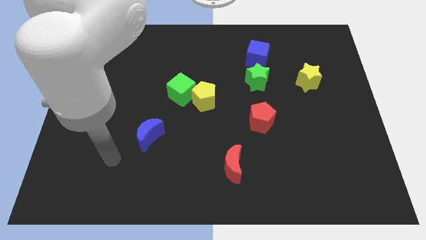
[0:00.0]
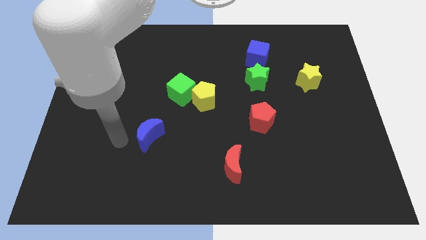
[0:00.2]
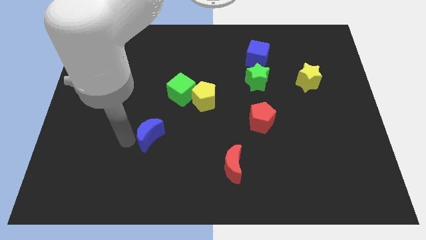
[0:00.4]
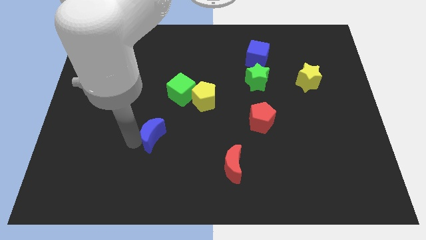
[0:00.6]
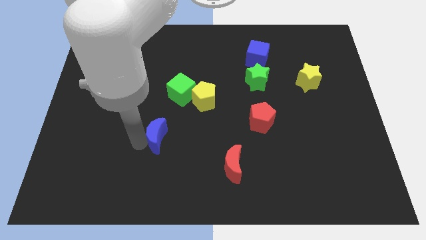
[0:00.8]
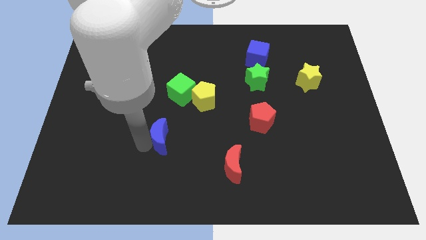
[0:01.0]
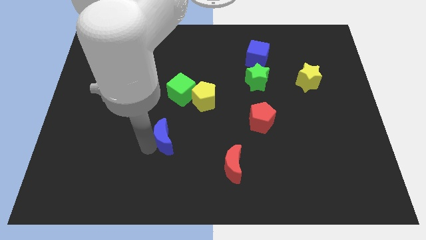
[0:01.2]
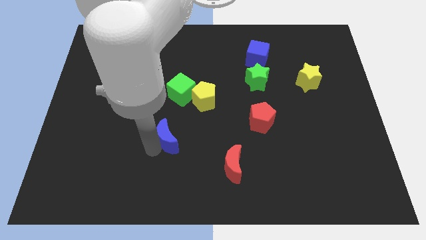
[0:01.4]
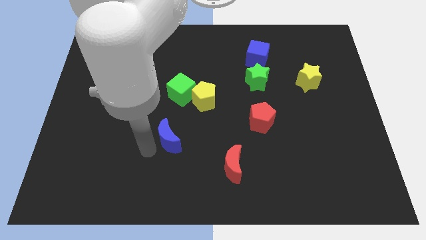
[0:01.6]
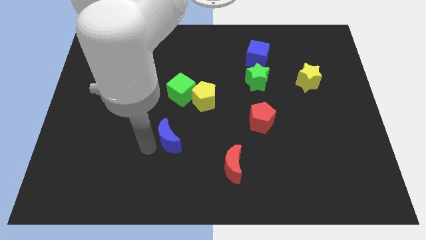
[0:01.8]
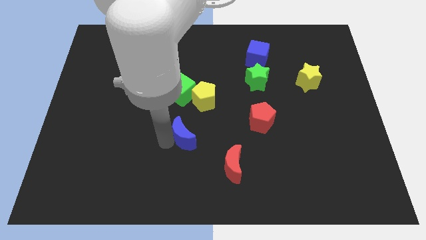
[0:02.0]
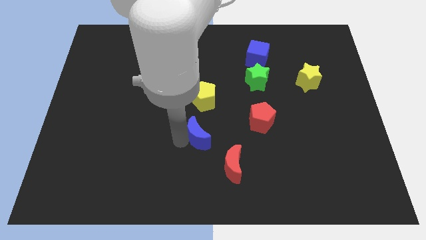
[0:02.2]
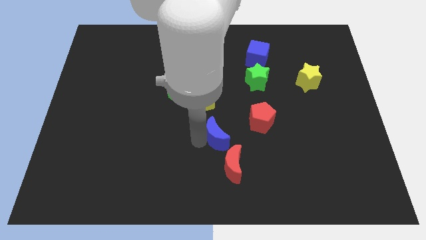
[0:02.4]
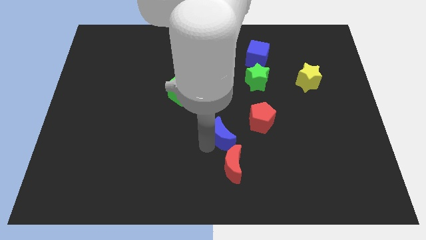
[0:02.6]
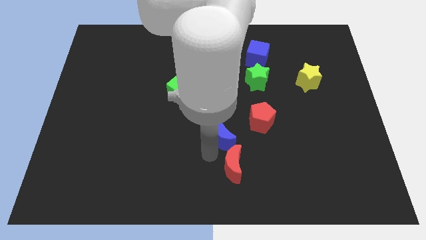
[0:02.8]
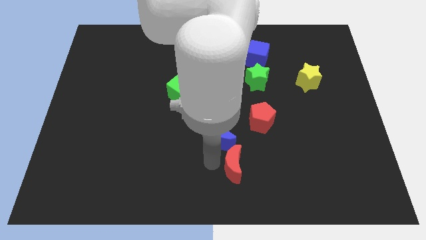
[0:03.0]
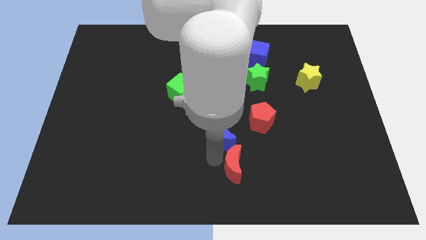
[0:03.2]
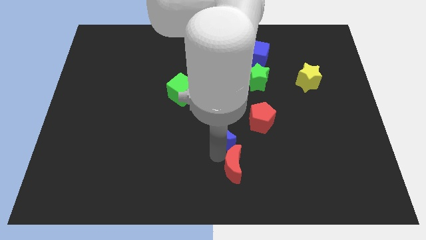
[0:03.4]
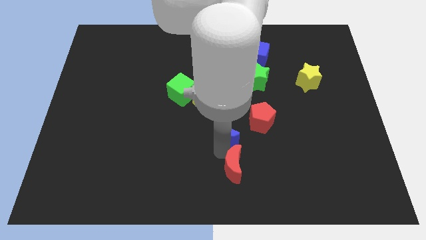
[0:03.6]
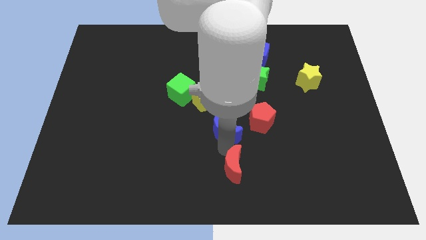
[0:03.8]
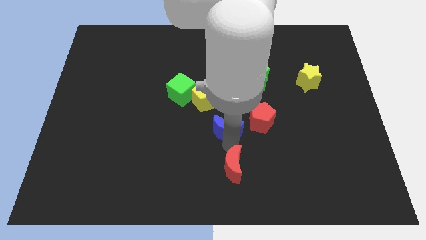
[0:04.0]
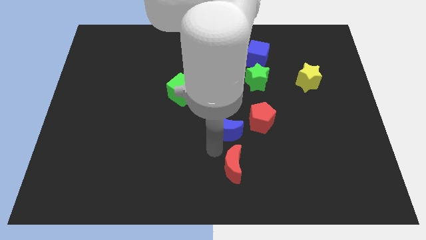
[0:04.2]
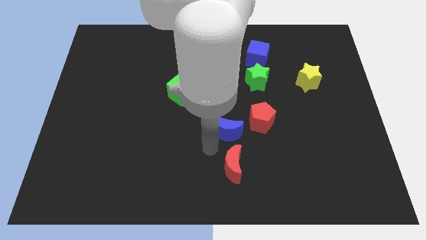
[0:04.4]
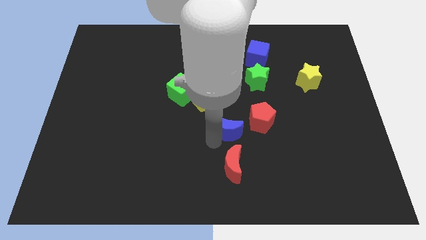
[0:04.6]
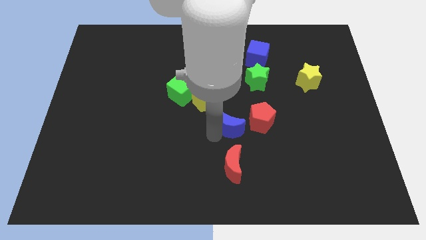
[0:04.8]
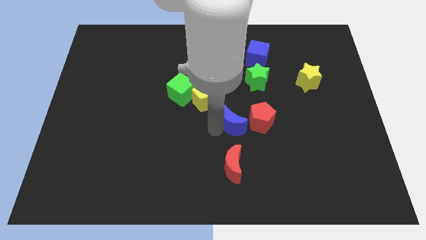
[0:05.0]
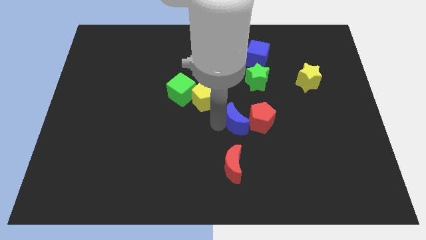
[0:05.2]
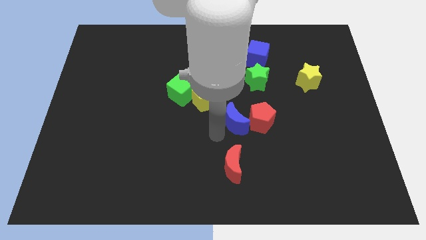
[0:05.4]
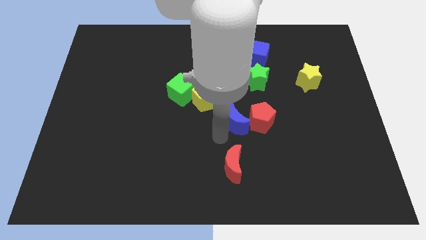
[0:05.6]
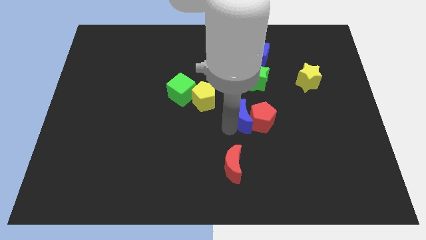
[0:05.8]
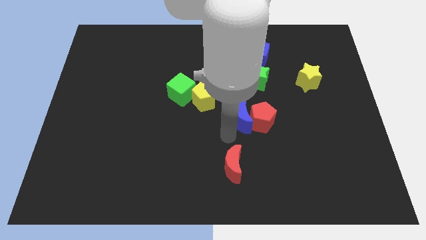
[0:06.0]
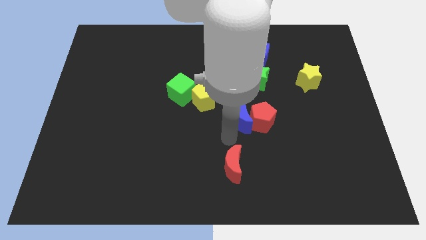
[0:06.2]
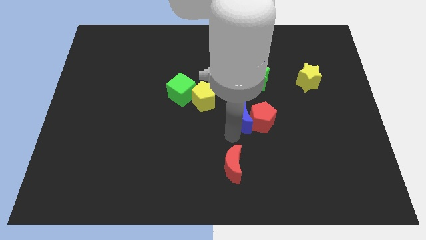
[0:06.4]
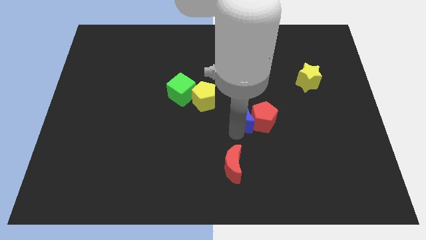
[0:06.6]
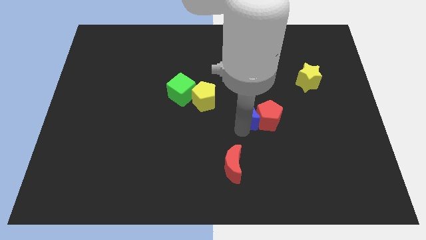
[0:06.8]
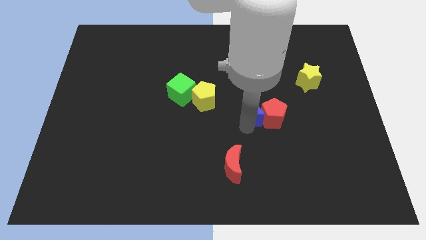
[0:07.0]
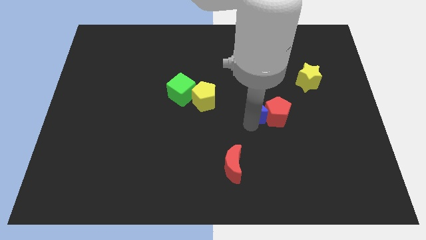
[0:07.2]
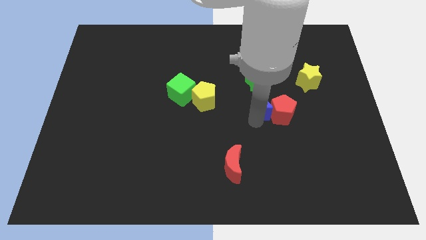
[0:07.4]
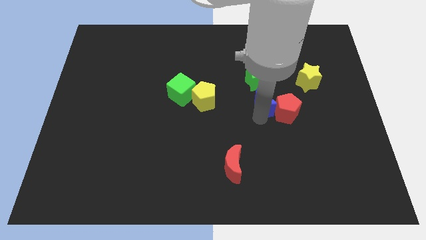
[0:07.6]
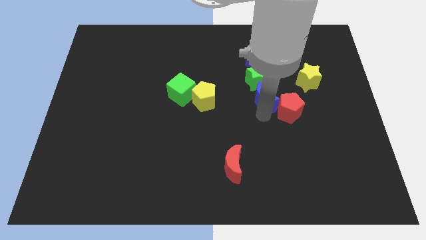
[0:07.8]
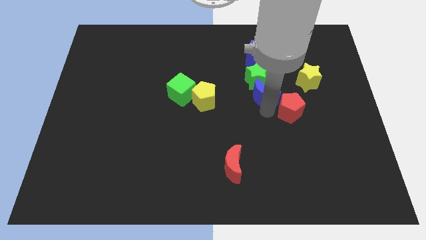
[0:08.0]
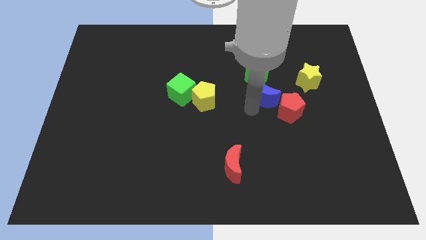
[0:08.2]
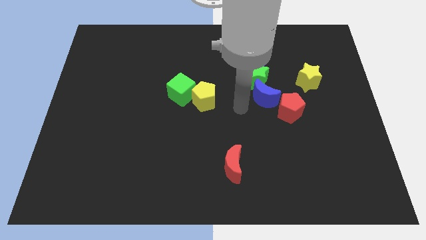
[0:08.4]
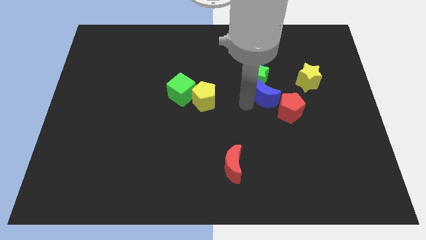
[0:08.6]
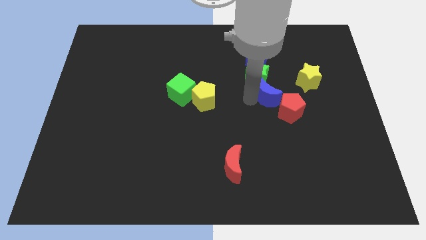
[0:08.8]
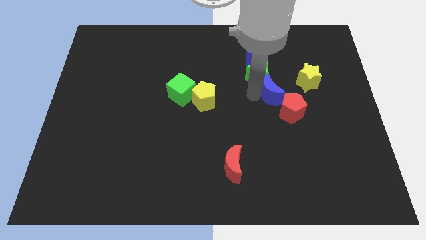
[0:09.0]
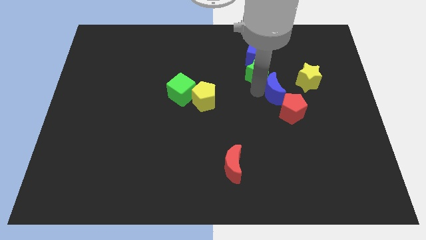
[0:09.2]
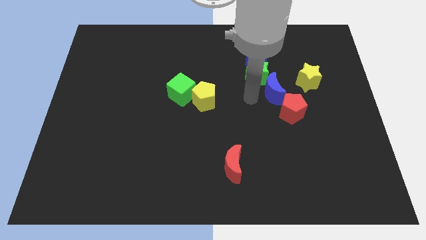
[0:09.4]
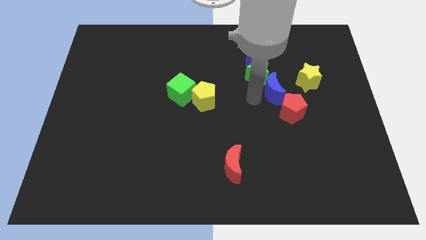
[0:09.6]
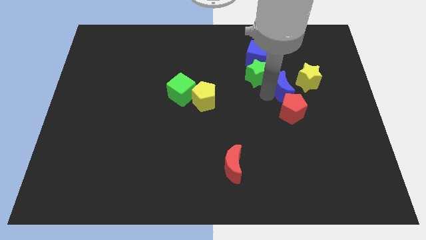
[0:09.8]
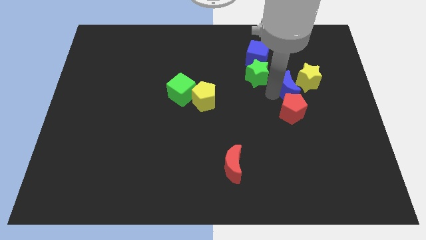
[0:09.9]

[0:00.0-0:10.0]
put the blue moon next to the yellow star

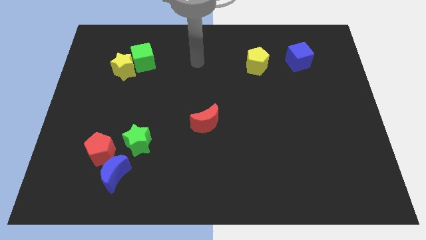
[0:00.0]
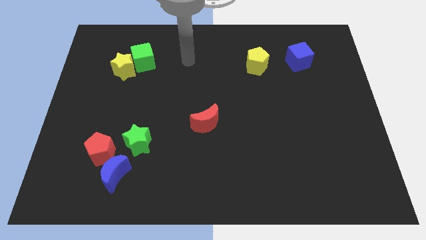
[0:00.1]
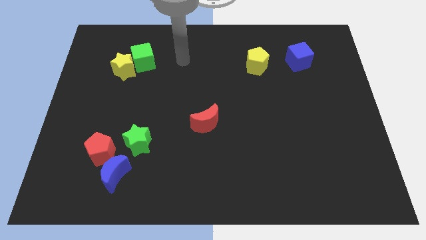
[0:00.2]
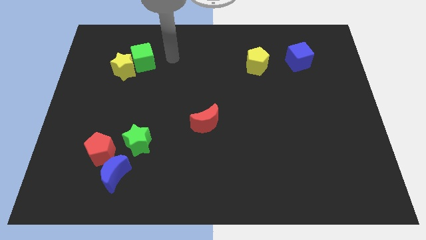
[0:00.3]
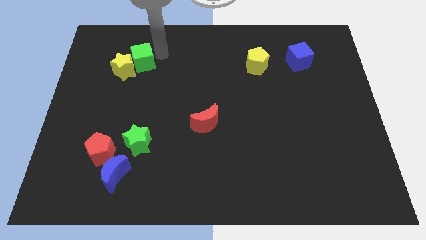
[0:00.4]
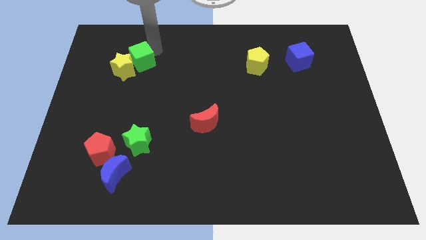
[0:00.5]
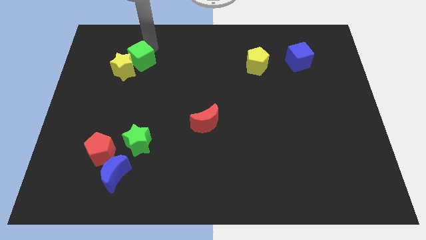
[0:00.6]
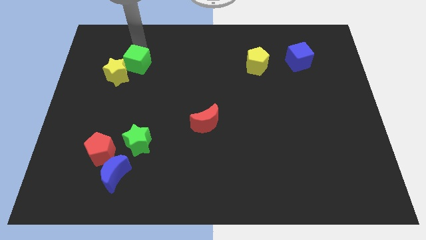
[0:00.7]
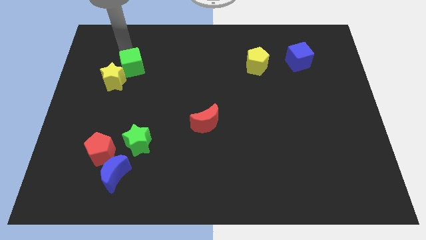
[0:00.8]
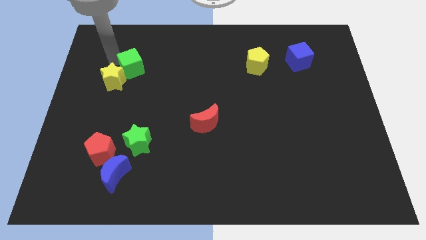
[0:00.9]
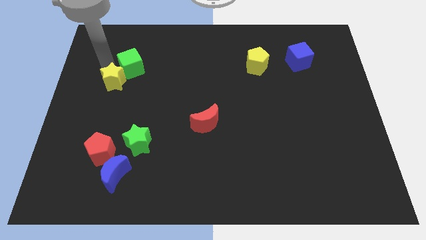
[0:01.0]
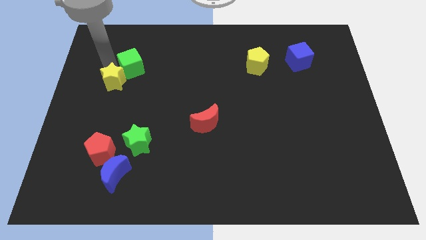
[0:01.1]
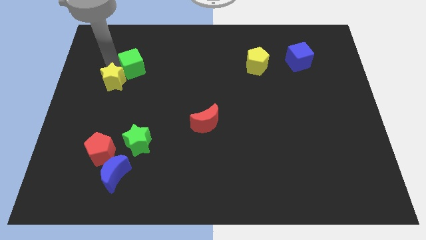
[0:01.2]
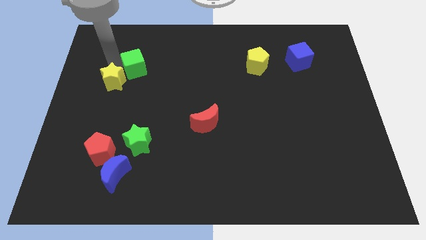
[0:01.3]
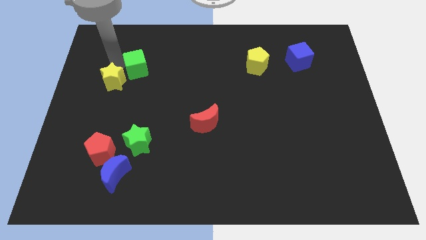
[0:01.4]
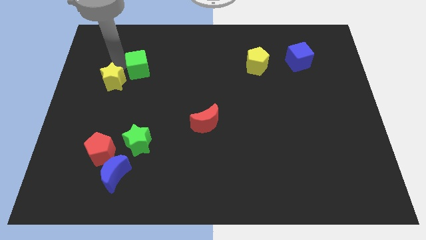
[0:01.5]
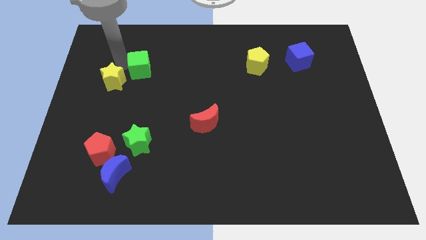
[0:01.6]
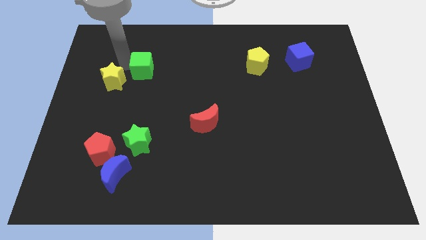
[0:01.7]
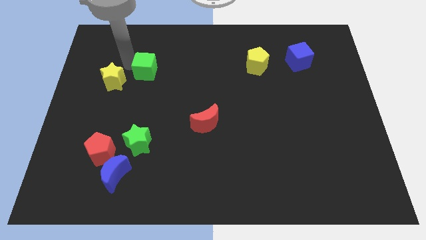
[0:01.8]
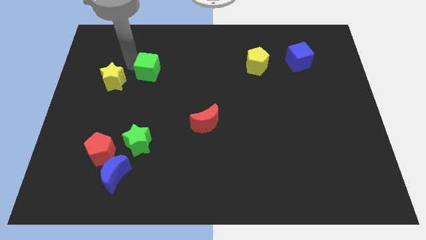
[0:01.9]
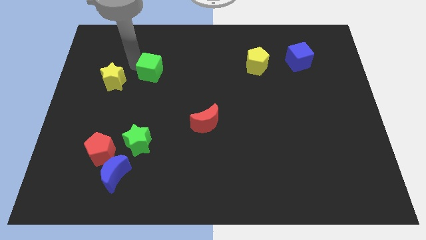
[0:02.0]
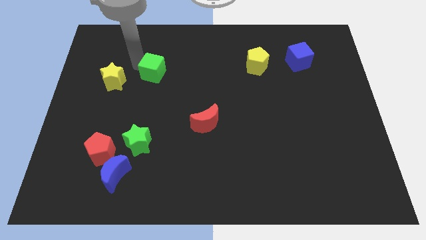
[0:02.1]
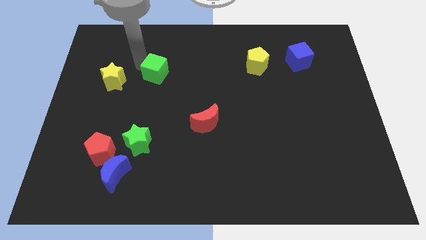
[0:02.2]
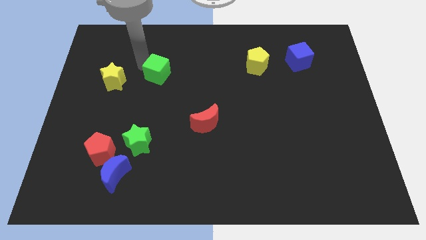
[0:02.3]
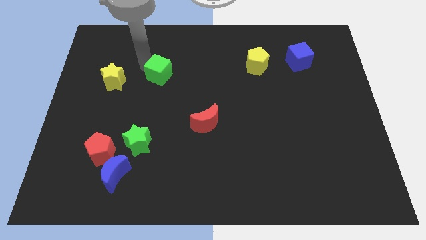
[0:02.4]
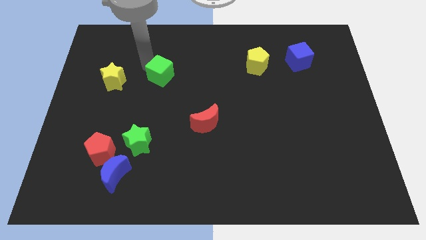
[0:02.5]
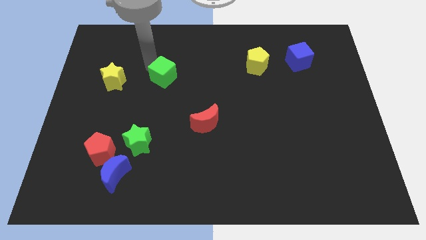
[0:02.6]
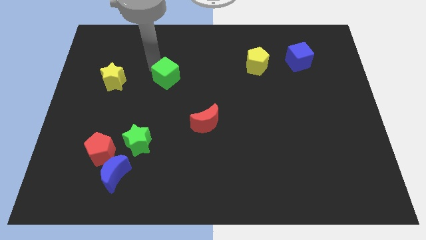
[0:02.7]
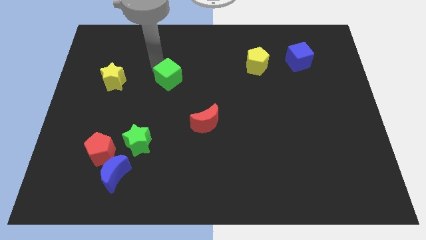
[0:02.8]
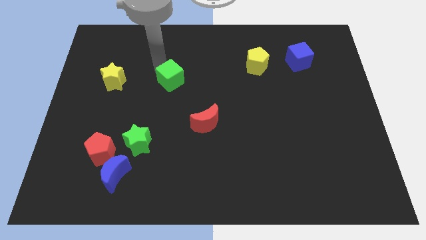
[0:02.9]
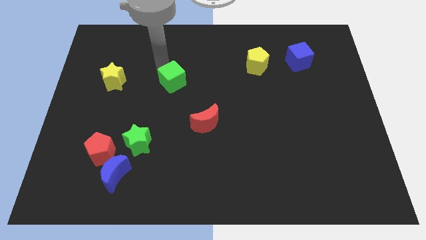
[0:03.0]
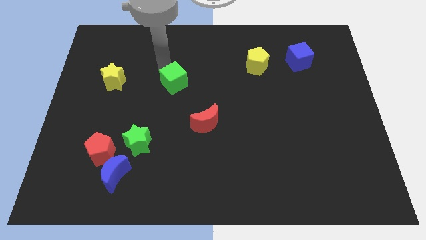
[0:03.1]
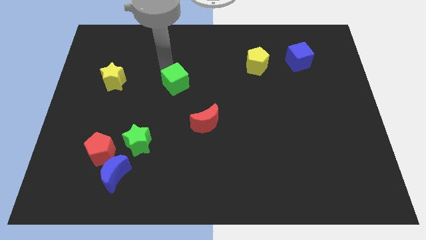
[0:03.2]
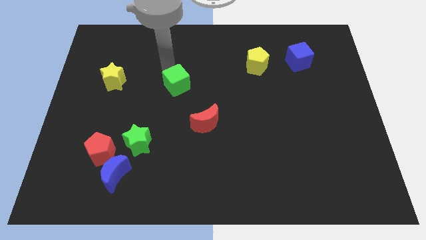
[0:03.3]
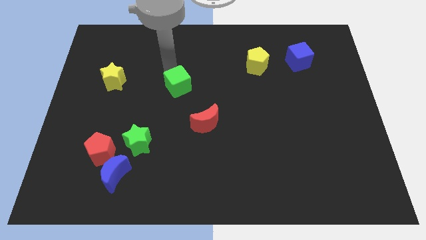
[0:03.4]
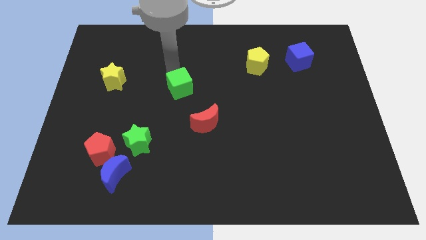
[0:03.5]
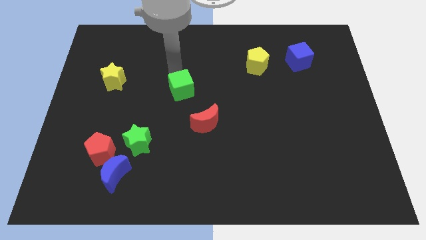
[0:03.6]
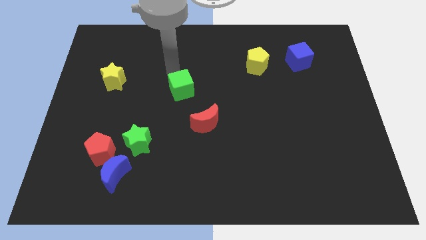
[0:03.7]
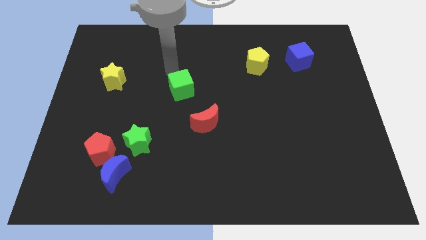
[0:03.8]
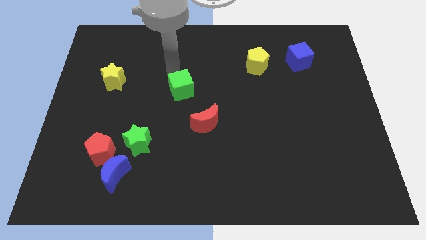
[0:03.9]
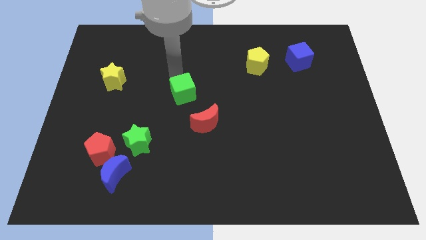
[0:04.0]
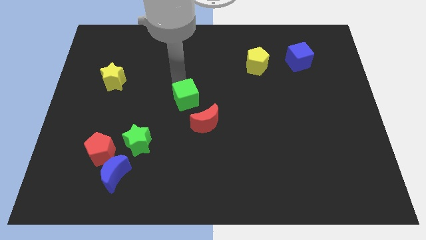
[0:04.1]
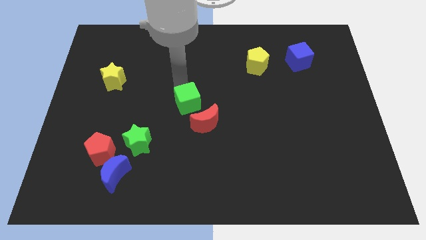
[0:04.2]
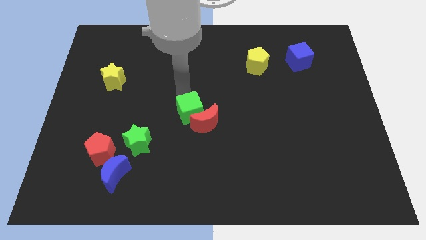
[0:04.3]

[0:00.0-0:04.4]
put the green cube towards the red moon
